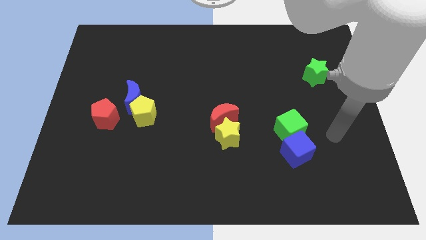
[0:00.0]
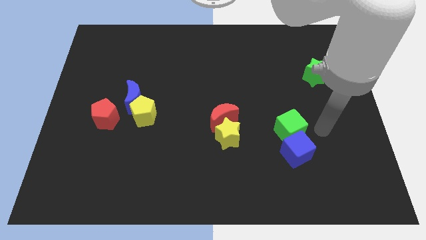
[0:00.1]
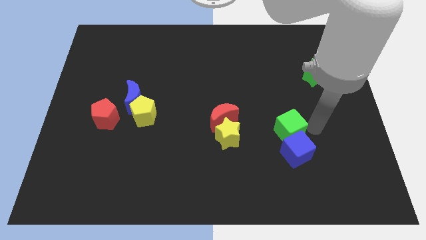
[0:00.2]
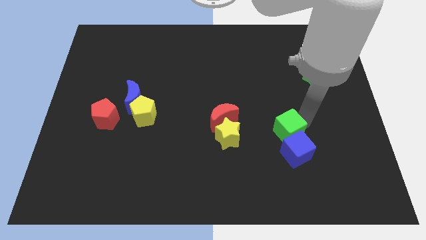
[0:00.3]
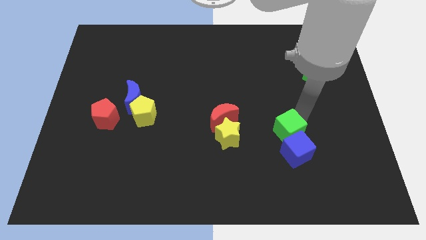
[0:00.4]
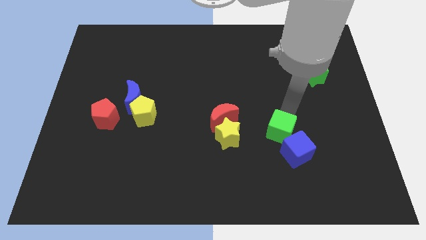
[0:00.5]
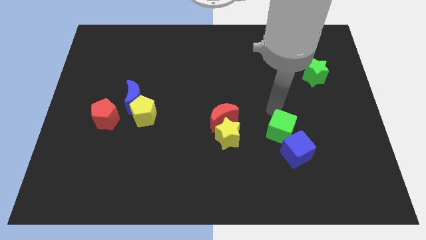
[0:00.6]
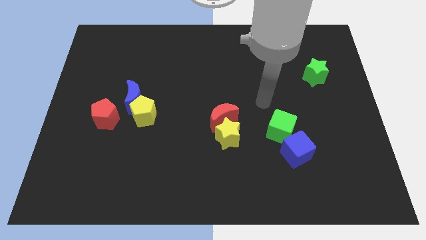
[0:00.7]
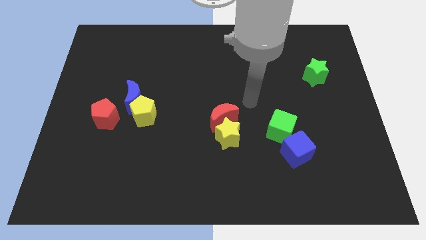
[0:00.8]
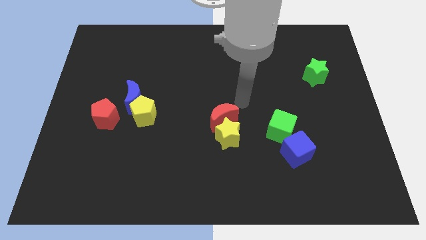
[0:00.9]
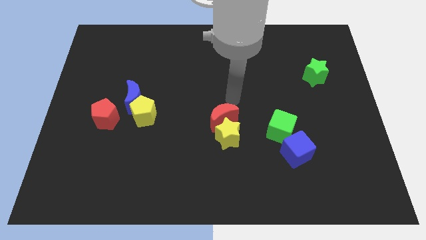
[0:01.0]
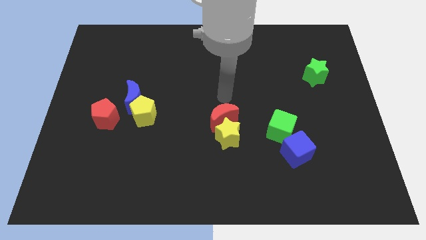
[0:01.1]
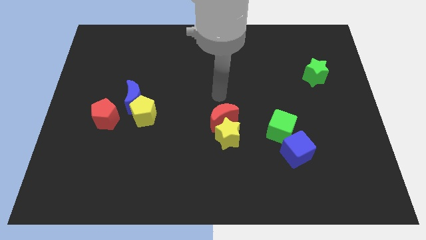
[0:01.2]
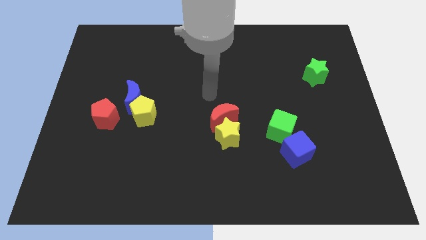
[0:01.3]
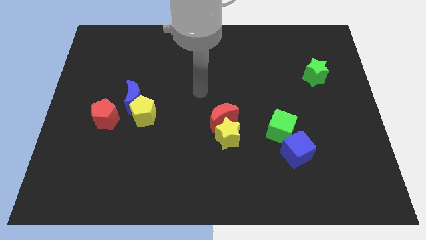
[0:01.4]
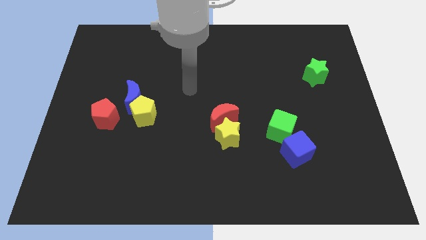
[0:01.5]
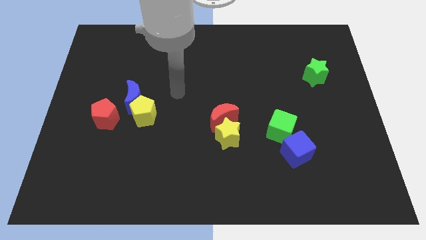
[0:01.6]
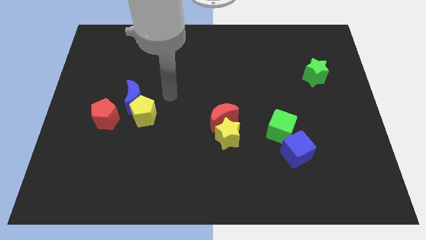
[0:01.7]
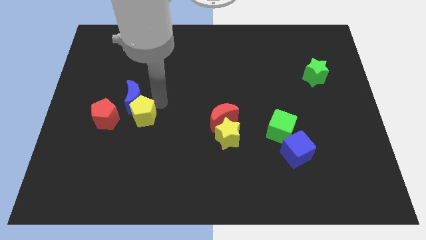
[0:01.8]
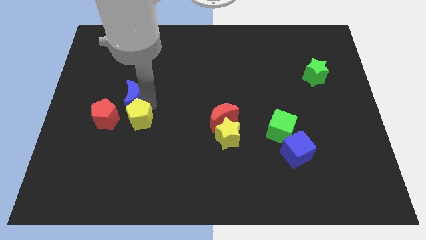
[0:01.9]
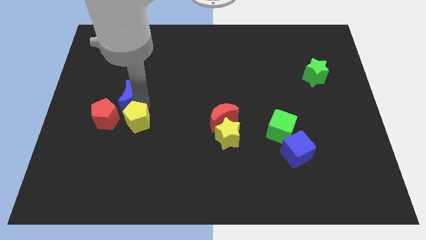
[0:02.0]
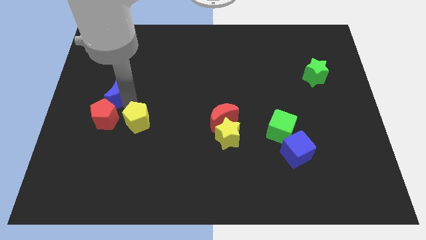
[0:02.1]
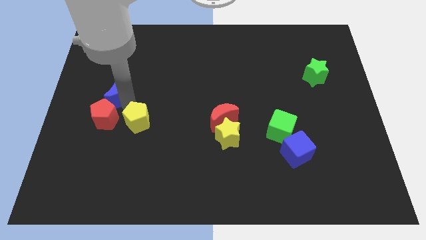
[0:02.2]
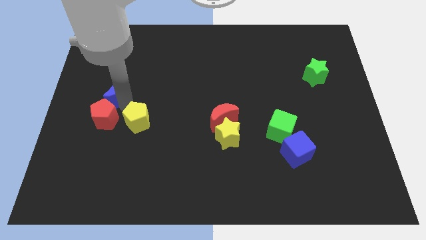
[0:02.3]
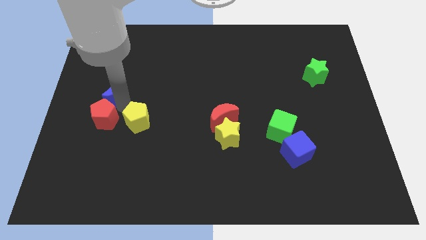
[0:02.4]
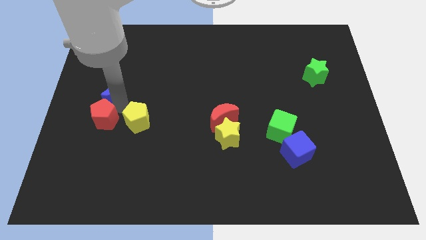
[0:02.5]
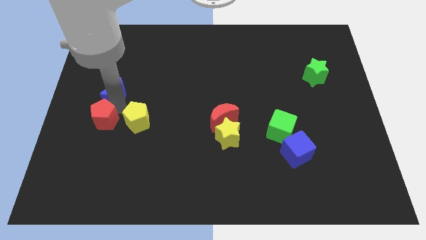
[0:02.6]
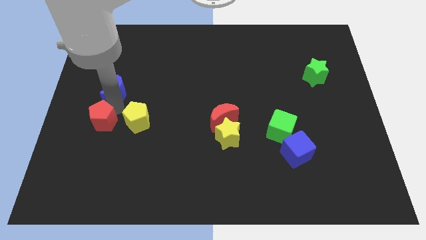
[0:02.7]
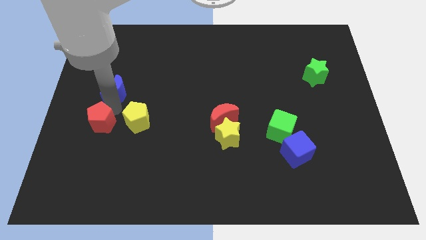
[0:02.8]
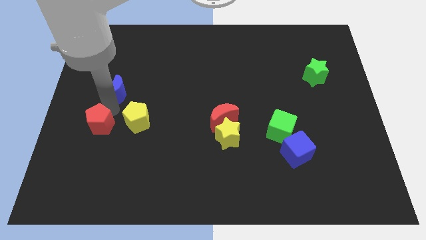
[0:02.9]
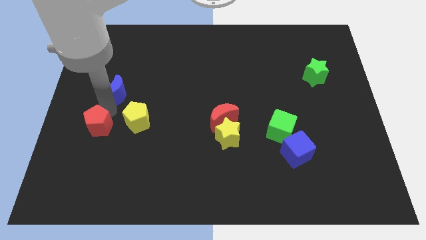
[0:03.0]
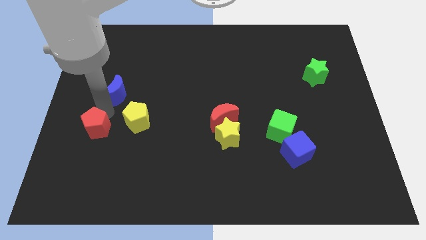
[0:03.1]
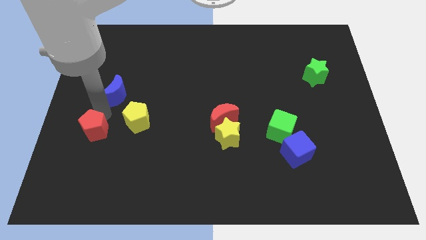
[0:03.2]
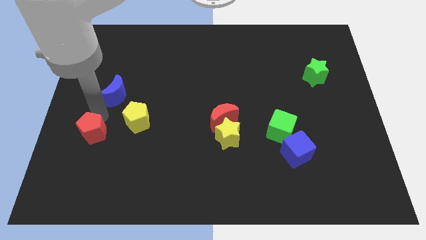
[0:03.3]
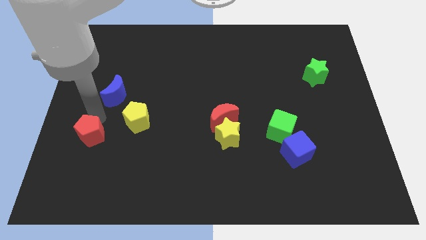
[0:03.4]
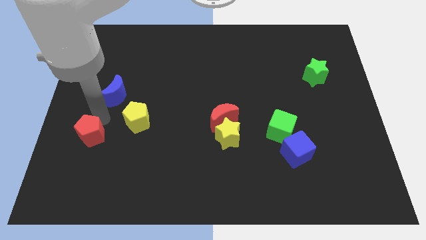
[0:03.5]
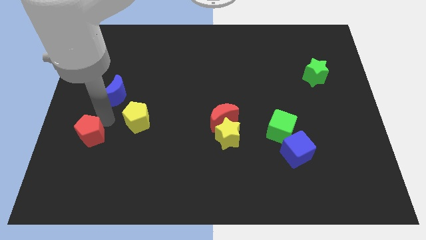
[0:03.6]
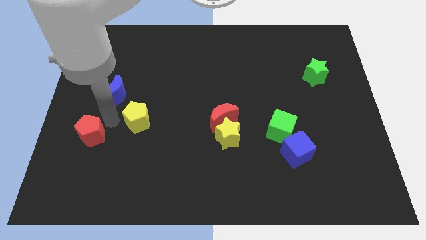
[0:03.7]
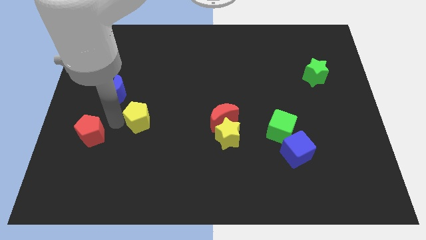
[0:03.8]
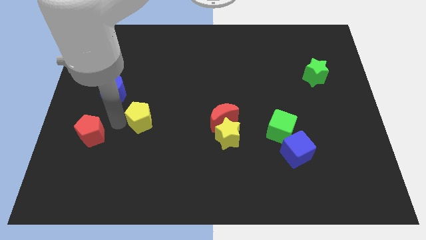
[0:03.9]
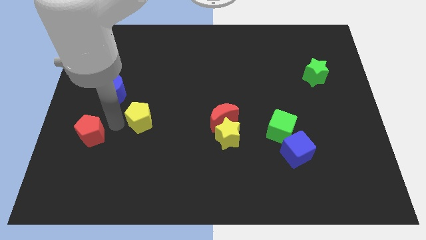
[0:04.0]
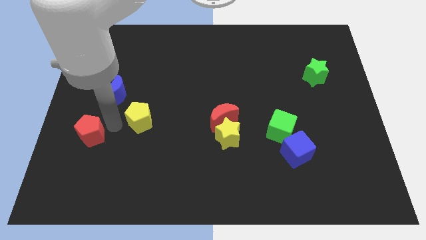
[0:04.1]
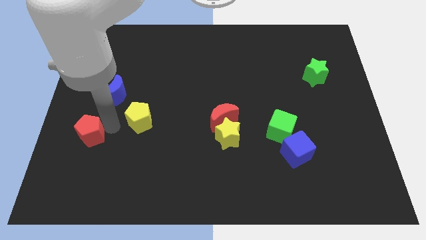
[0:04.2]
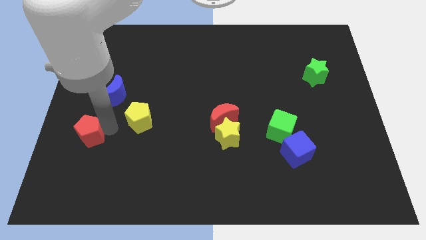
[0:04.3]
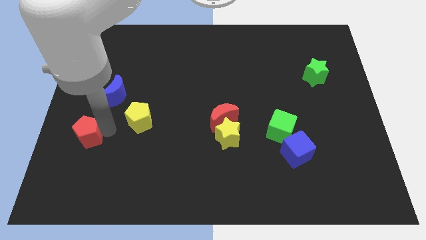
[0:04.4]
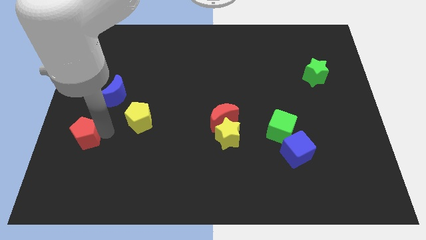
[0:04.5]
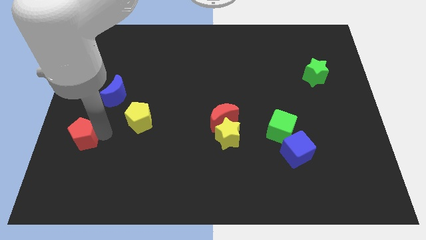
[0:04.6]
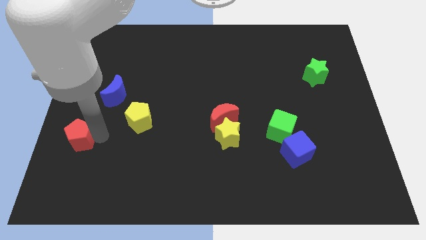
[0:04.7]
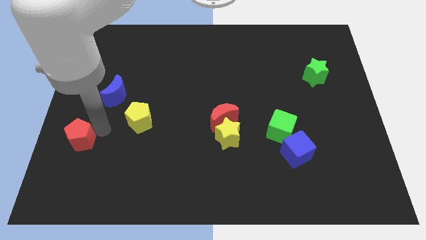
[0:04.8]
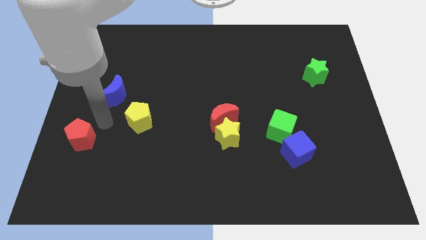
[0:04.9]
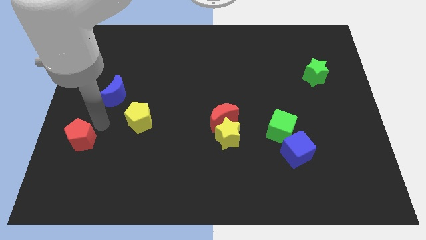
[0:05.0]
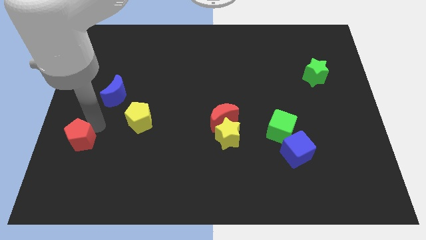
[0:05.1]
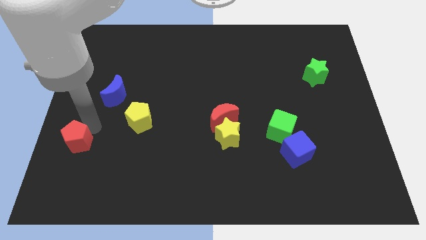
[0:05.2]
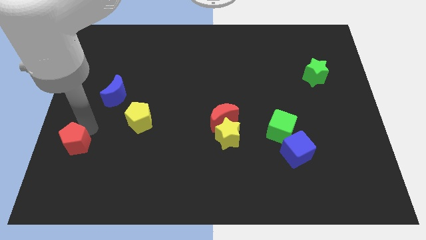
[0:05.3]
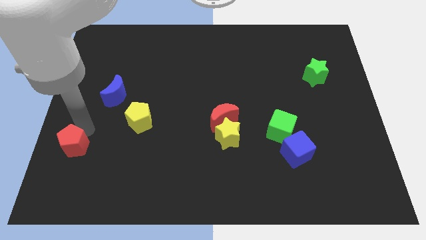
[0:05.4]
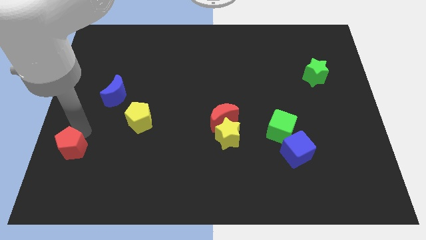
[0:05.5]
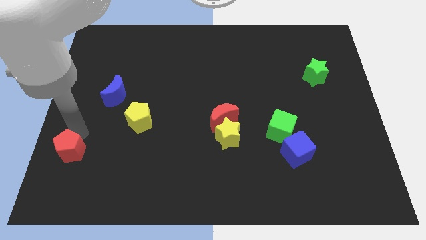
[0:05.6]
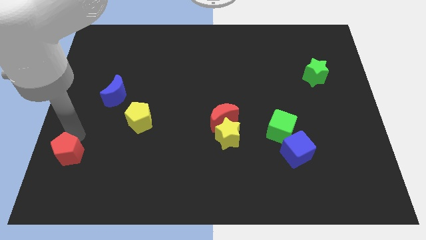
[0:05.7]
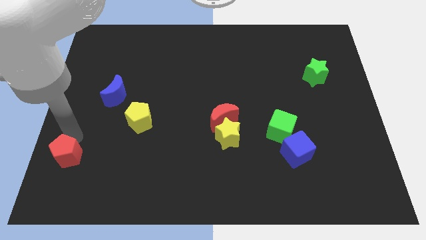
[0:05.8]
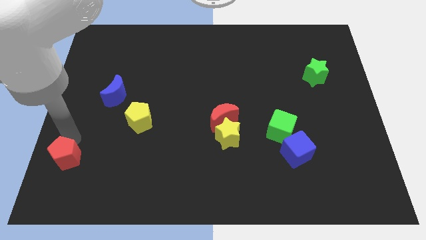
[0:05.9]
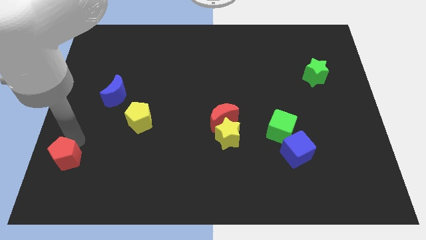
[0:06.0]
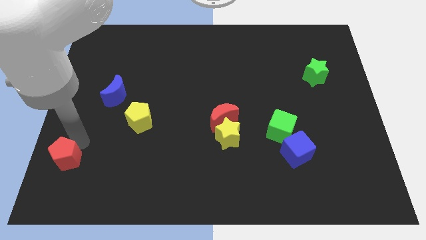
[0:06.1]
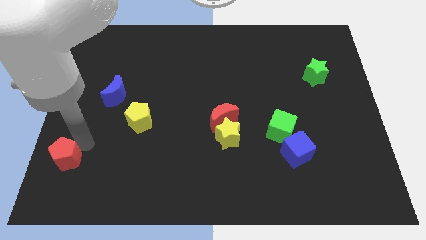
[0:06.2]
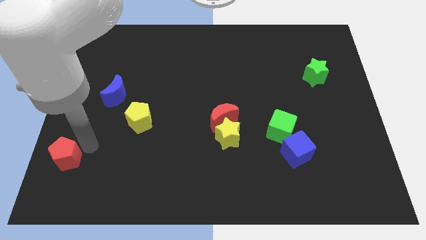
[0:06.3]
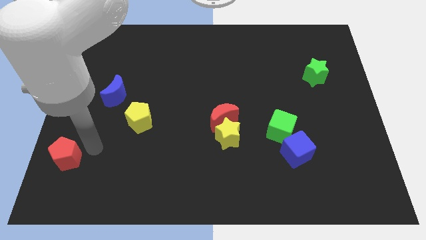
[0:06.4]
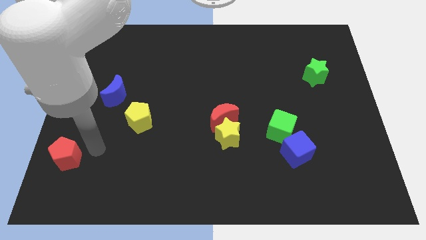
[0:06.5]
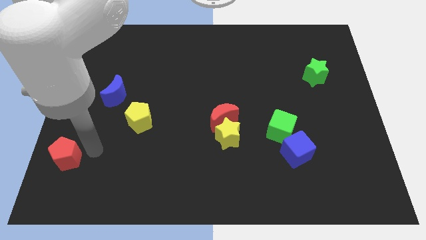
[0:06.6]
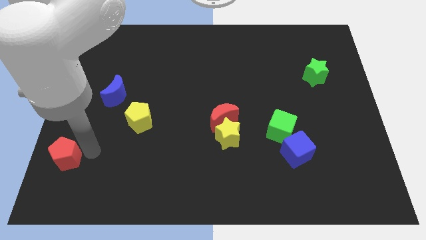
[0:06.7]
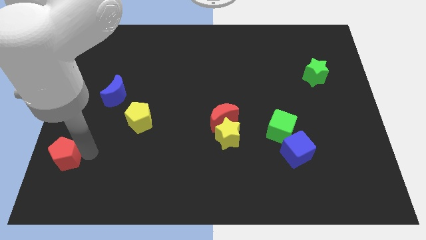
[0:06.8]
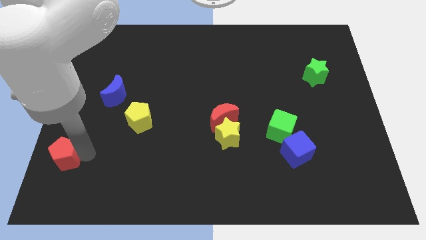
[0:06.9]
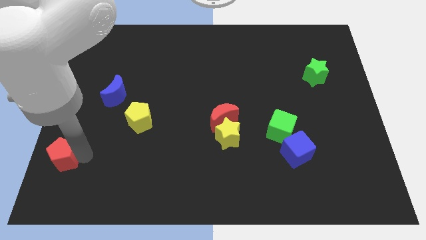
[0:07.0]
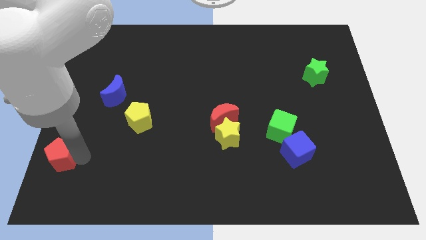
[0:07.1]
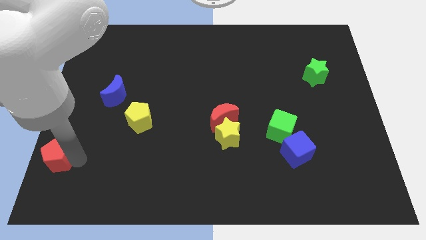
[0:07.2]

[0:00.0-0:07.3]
push the red pentagon to the bottom left corner
